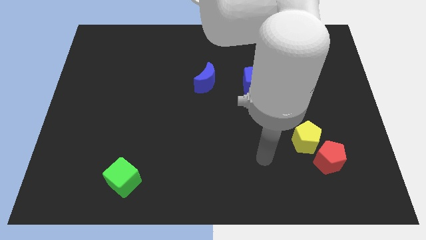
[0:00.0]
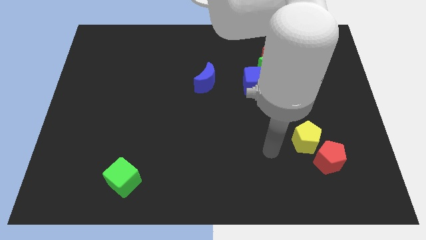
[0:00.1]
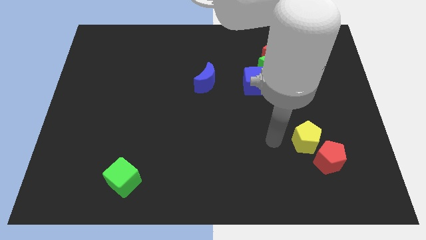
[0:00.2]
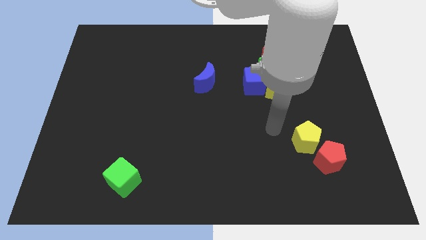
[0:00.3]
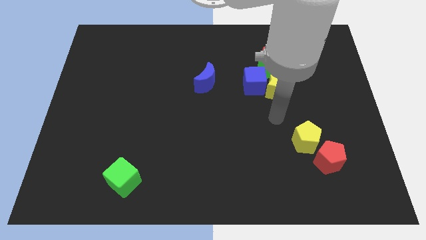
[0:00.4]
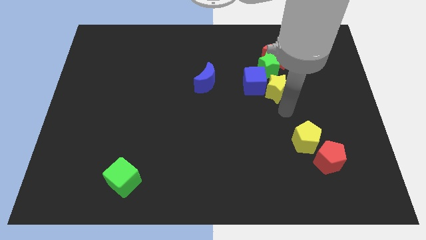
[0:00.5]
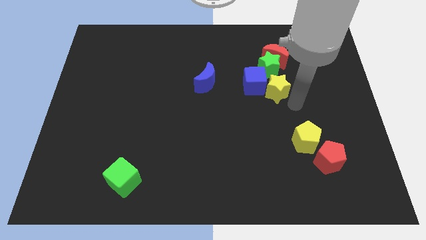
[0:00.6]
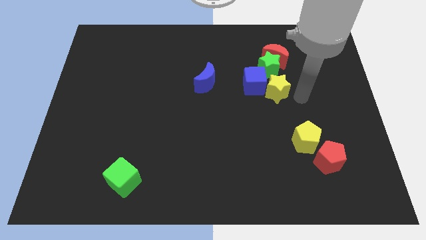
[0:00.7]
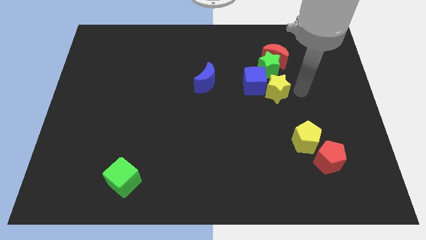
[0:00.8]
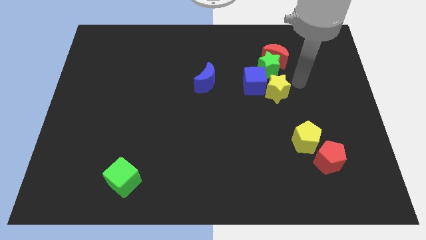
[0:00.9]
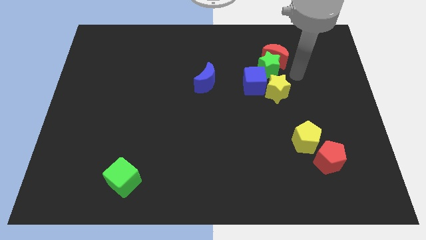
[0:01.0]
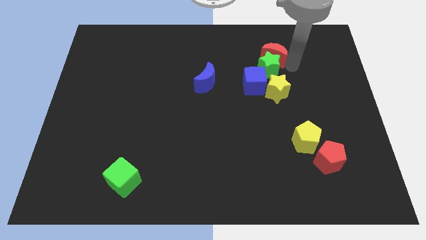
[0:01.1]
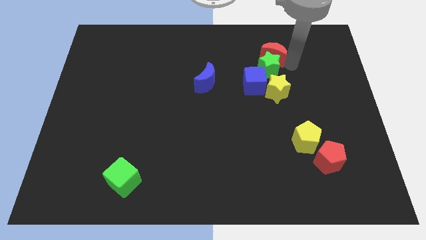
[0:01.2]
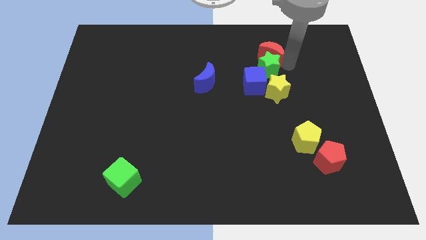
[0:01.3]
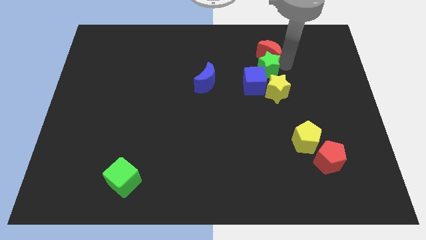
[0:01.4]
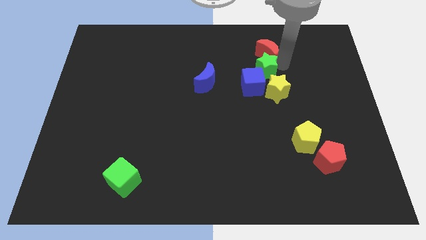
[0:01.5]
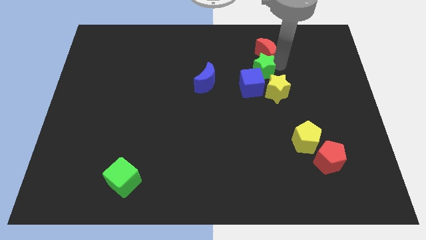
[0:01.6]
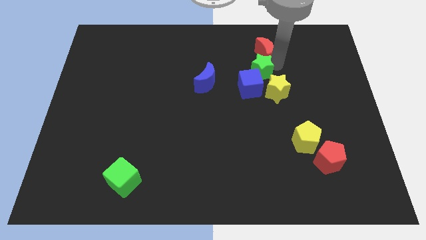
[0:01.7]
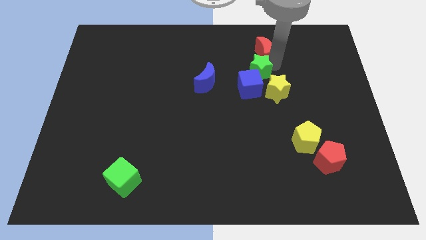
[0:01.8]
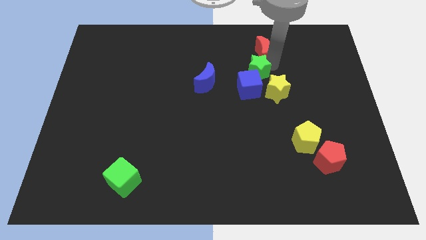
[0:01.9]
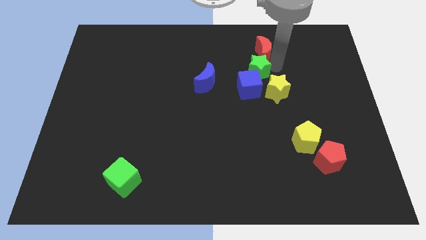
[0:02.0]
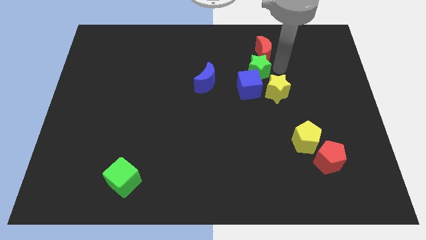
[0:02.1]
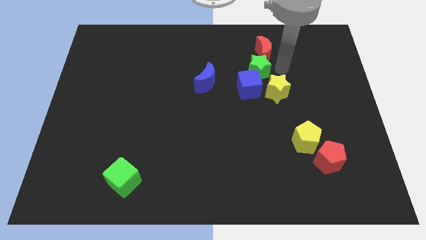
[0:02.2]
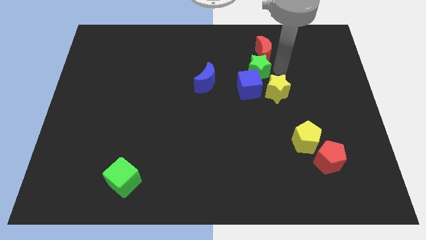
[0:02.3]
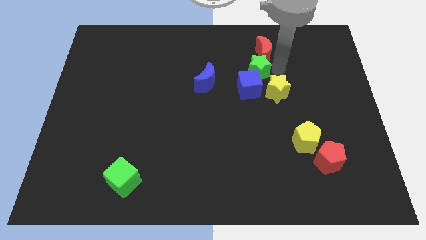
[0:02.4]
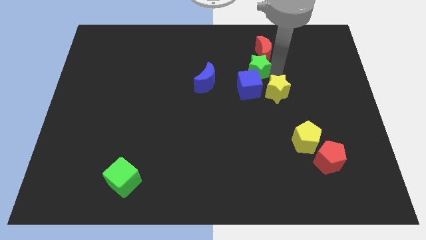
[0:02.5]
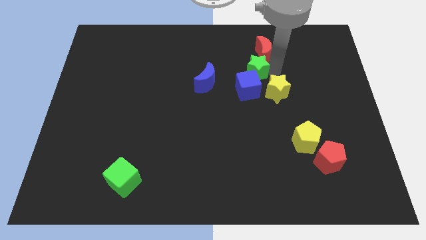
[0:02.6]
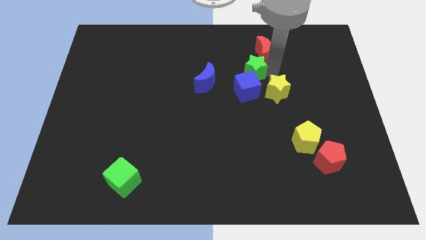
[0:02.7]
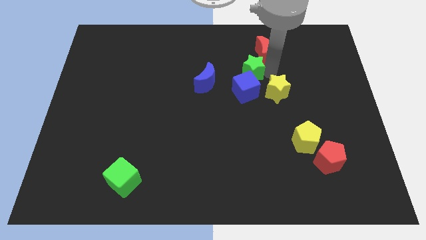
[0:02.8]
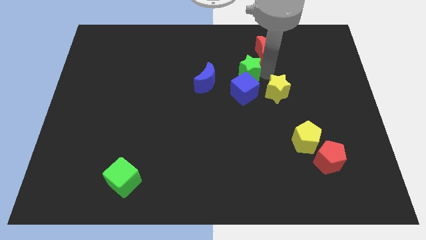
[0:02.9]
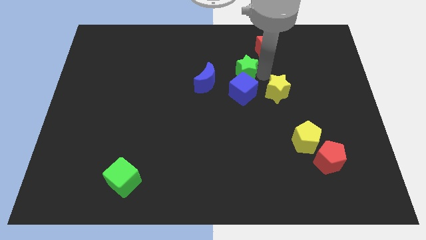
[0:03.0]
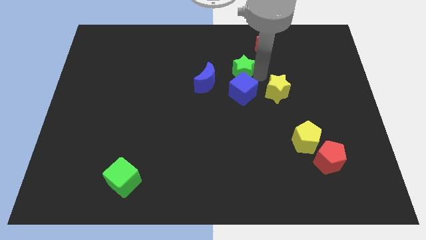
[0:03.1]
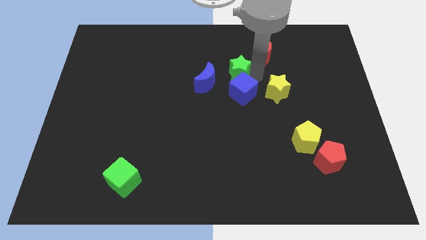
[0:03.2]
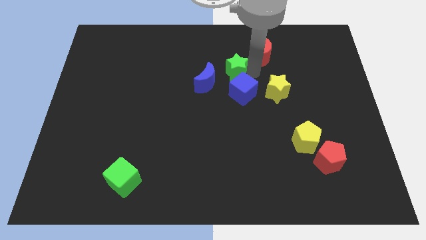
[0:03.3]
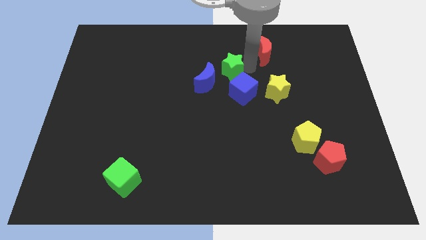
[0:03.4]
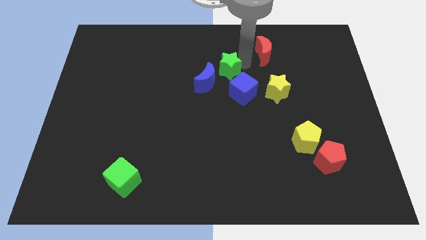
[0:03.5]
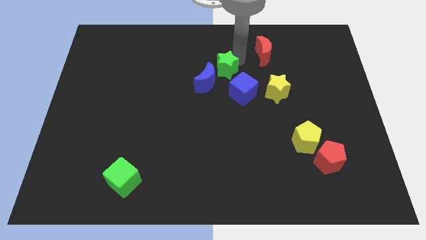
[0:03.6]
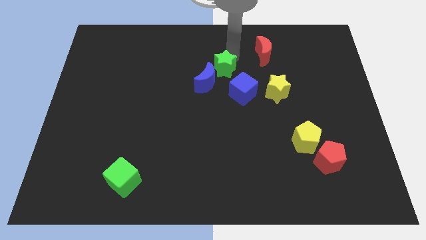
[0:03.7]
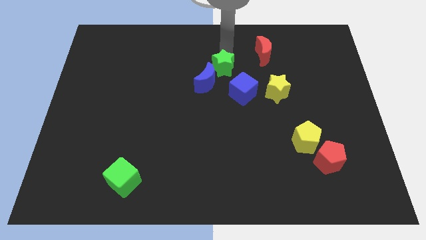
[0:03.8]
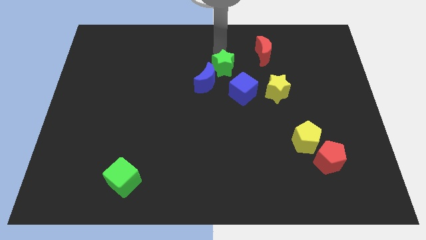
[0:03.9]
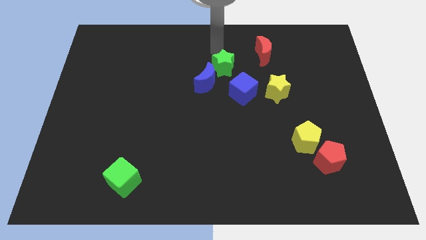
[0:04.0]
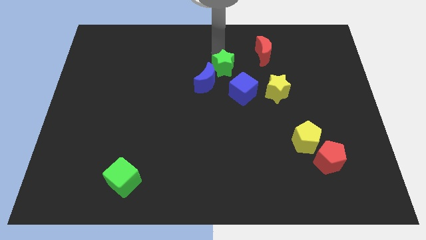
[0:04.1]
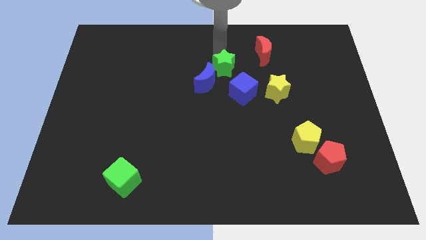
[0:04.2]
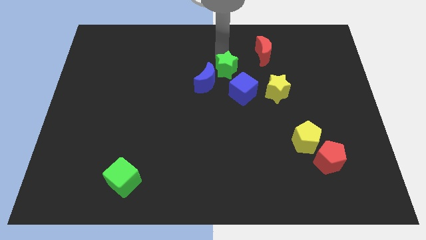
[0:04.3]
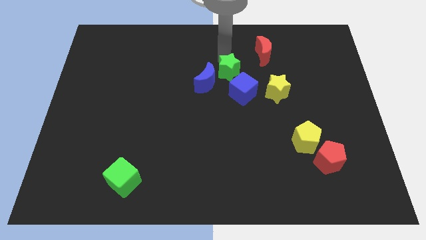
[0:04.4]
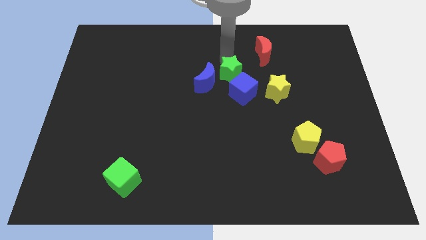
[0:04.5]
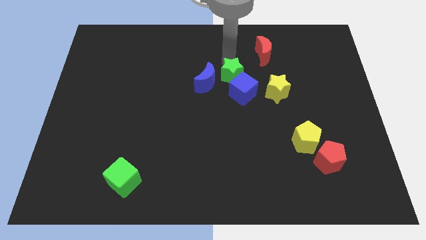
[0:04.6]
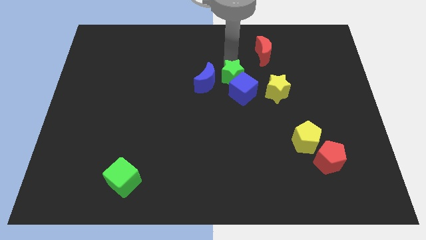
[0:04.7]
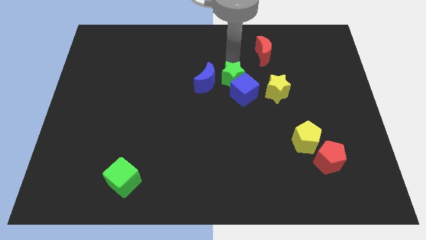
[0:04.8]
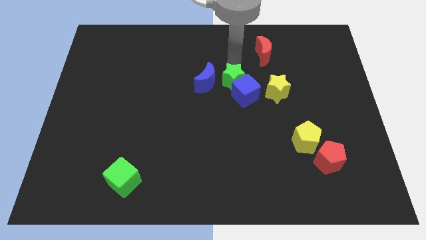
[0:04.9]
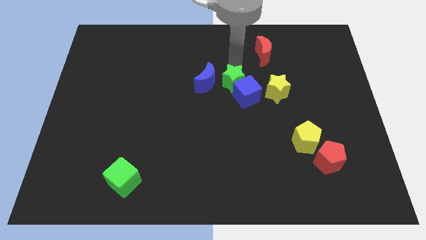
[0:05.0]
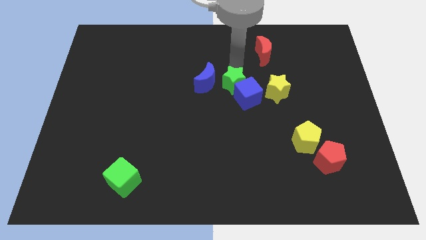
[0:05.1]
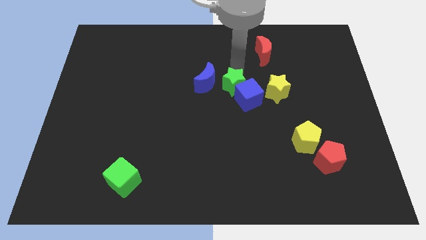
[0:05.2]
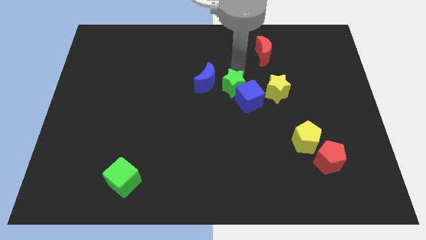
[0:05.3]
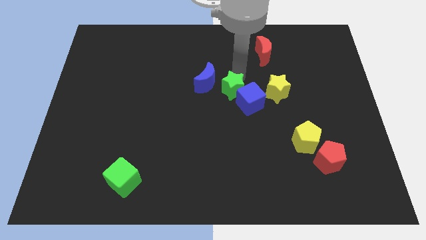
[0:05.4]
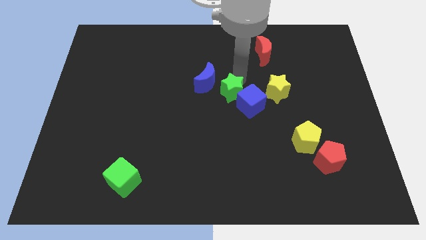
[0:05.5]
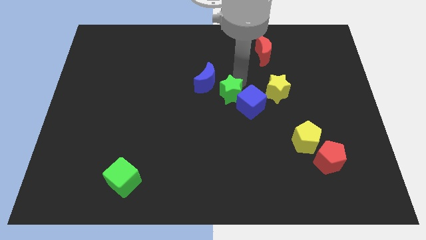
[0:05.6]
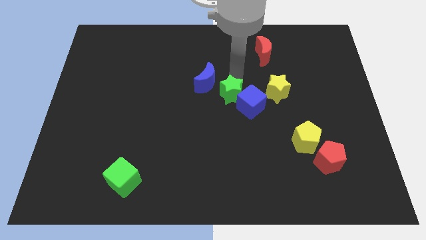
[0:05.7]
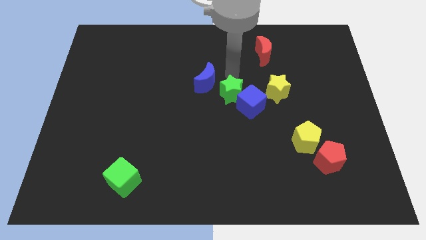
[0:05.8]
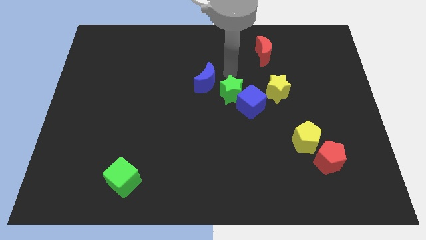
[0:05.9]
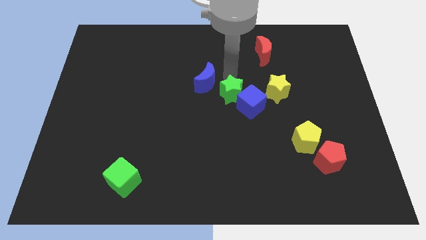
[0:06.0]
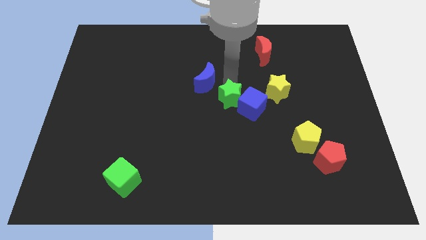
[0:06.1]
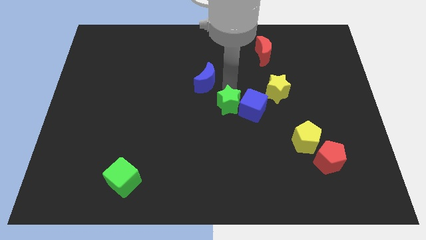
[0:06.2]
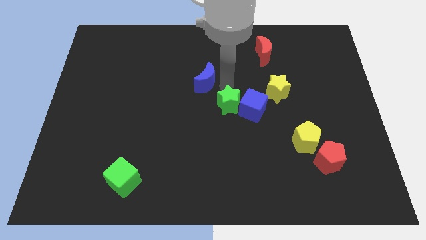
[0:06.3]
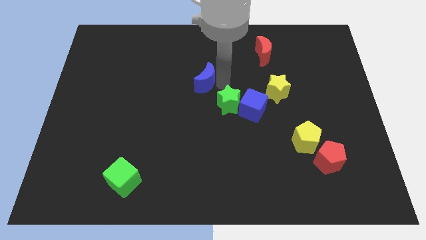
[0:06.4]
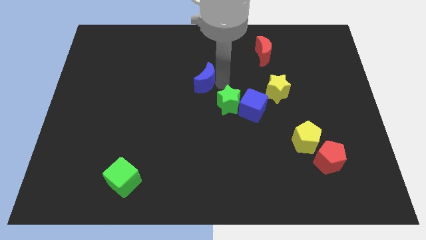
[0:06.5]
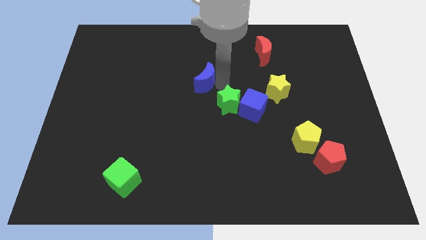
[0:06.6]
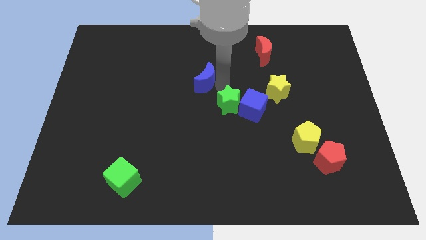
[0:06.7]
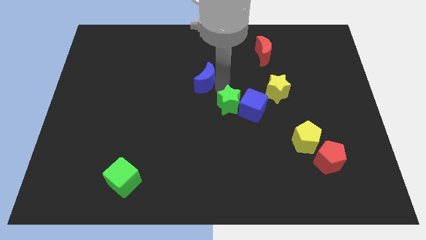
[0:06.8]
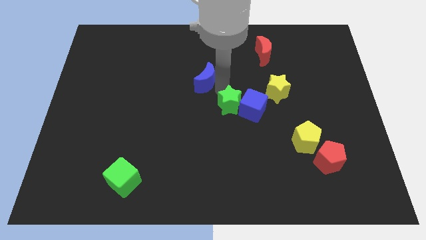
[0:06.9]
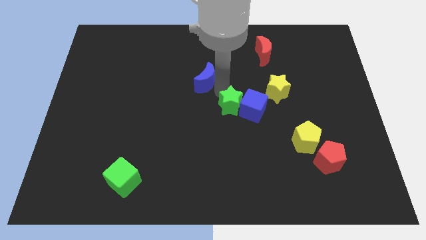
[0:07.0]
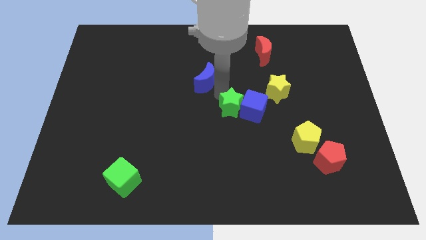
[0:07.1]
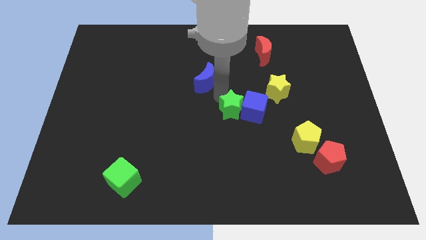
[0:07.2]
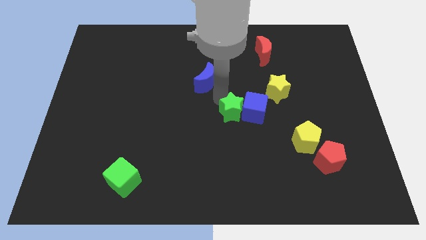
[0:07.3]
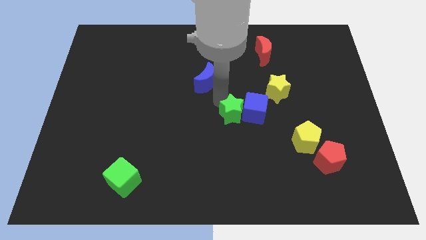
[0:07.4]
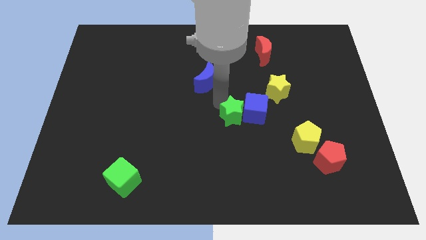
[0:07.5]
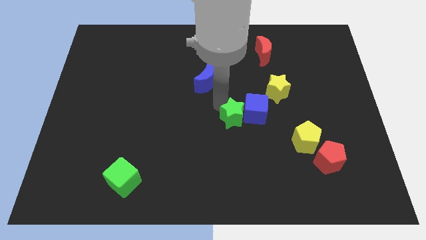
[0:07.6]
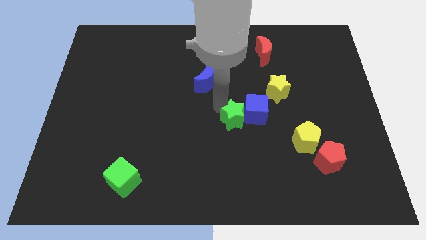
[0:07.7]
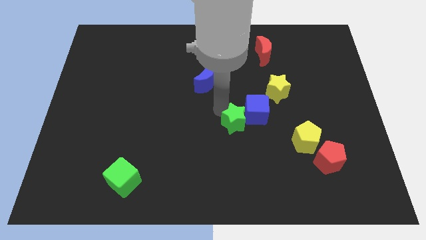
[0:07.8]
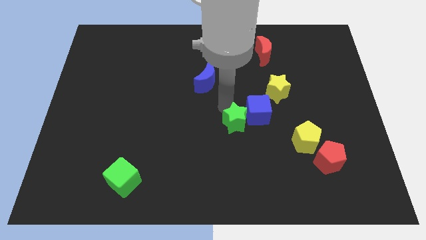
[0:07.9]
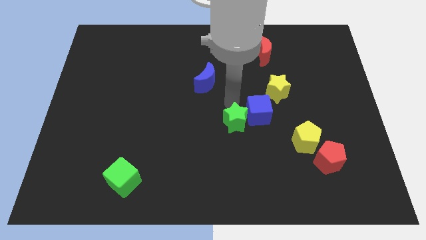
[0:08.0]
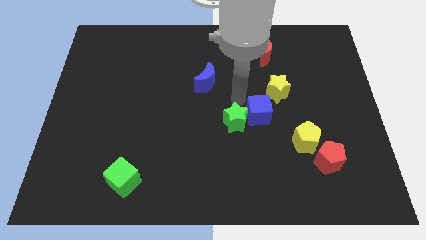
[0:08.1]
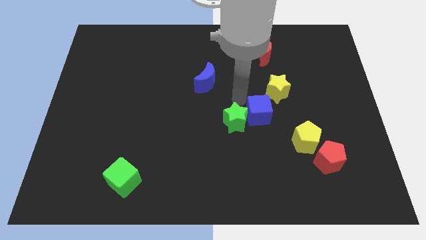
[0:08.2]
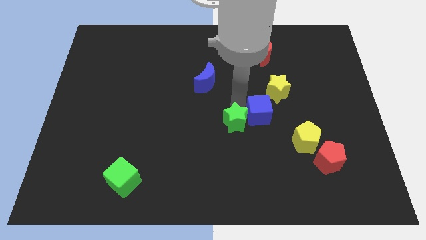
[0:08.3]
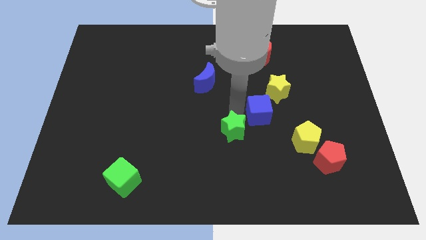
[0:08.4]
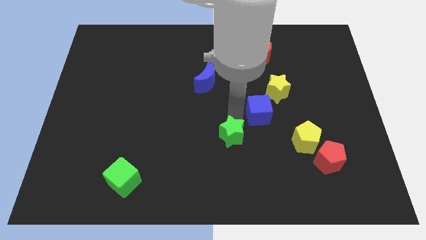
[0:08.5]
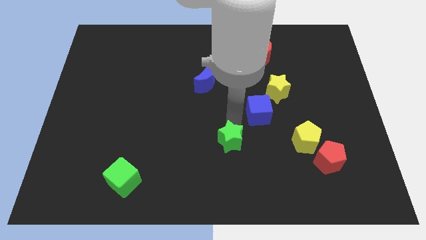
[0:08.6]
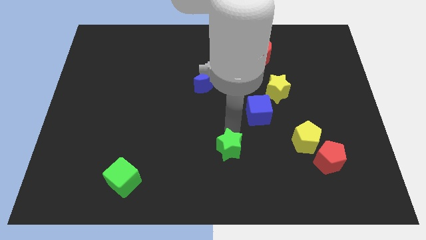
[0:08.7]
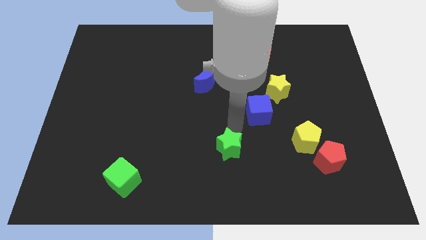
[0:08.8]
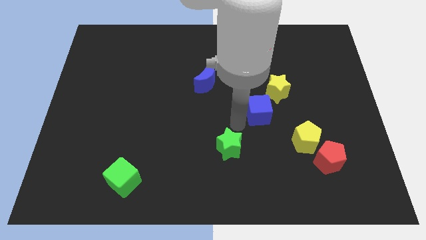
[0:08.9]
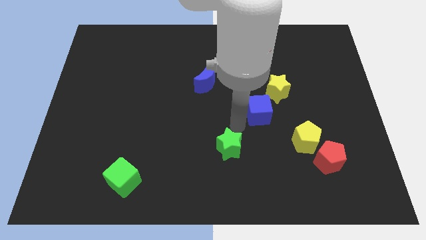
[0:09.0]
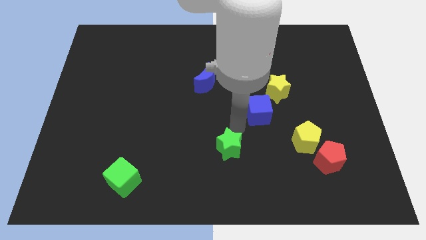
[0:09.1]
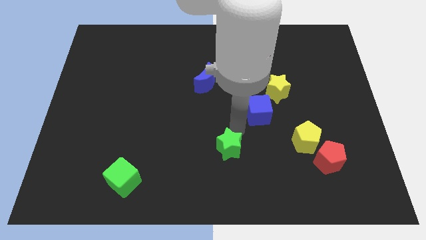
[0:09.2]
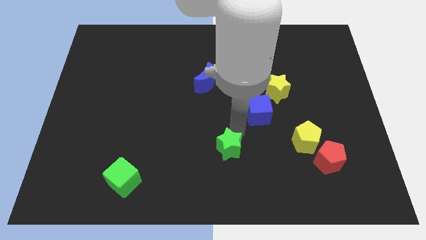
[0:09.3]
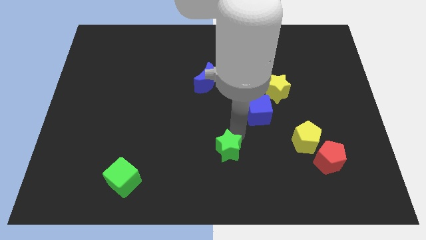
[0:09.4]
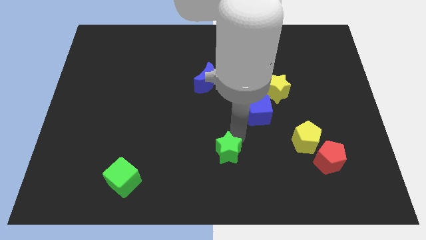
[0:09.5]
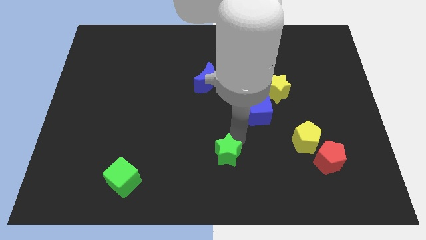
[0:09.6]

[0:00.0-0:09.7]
push the green star to the bottom side
